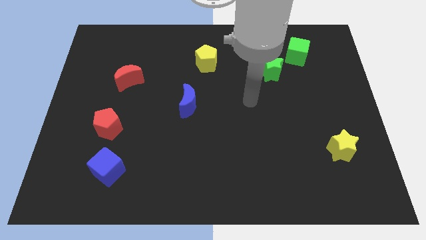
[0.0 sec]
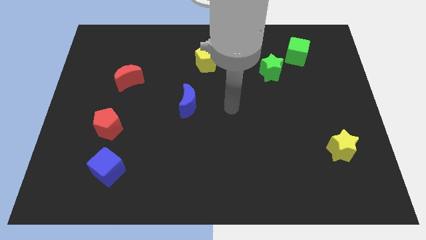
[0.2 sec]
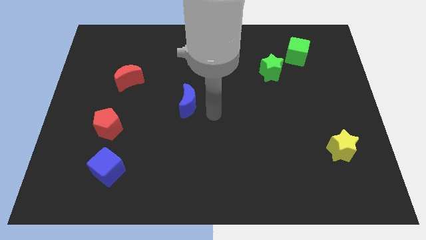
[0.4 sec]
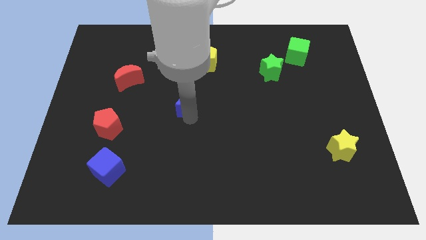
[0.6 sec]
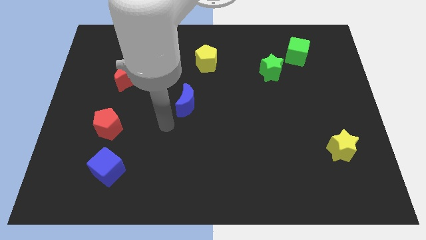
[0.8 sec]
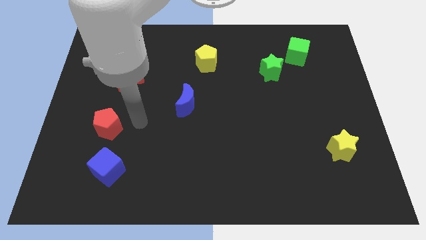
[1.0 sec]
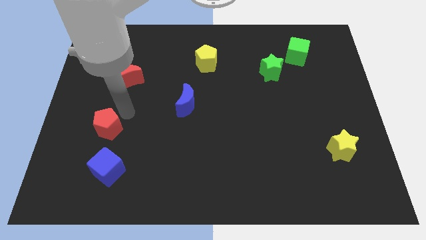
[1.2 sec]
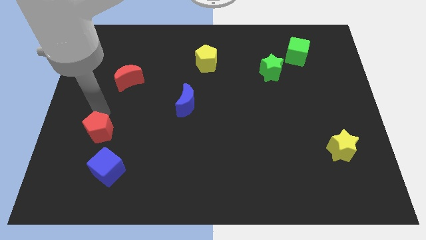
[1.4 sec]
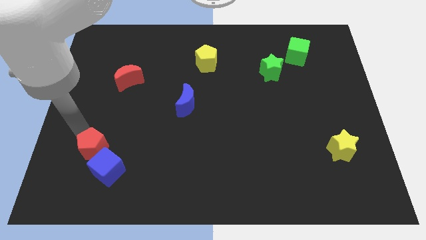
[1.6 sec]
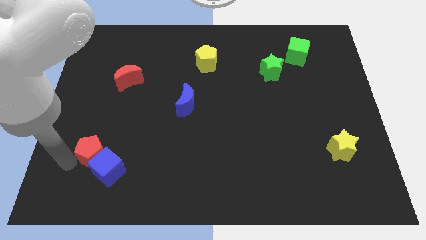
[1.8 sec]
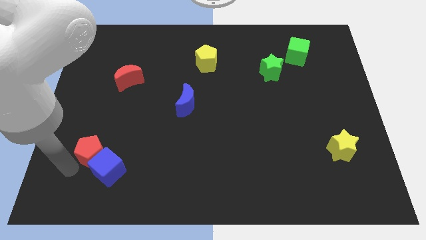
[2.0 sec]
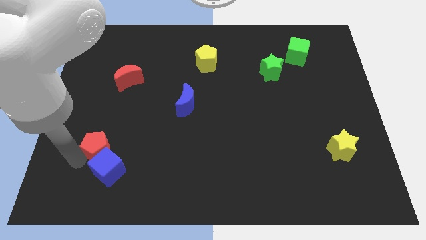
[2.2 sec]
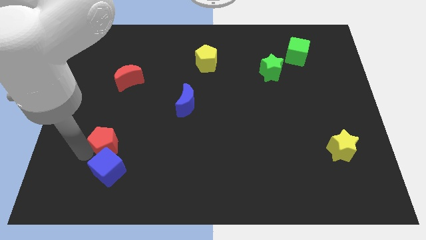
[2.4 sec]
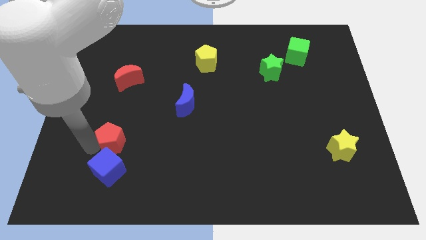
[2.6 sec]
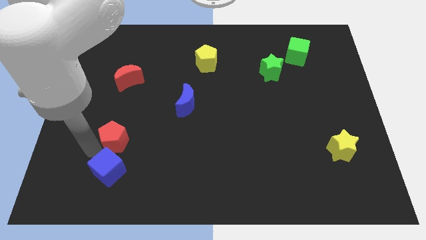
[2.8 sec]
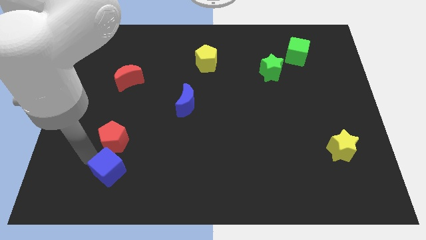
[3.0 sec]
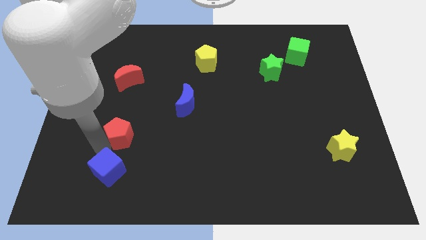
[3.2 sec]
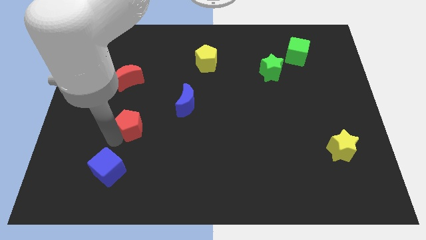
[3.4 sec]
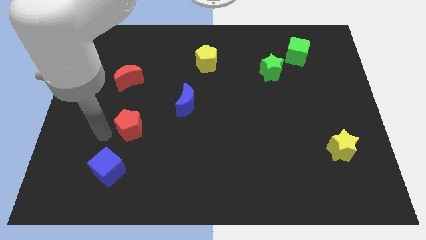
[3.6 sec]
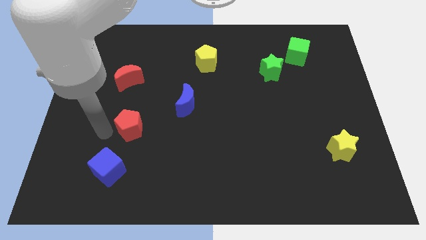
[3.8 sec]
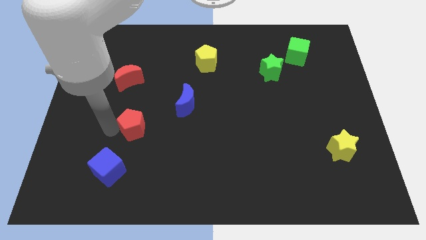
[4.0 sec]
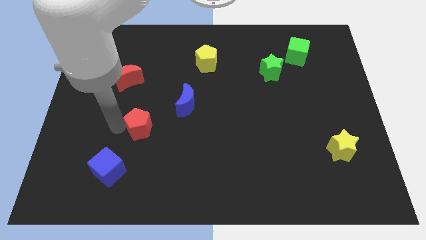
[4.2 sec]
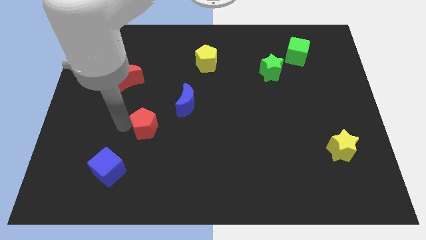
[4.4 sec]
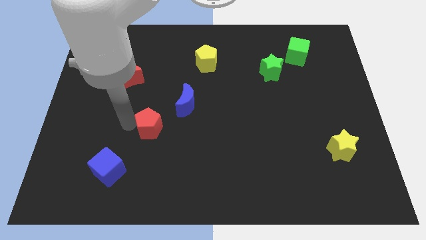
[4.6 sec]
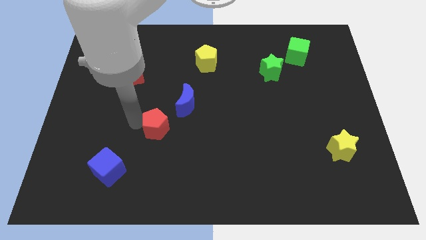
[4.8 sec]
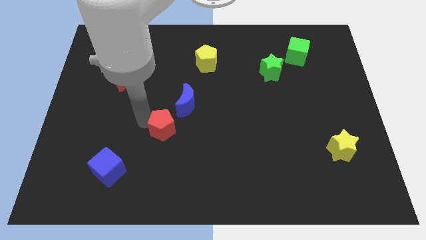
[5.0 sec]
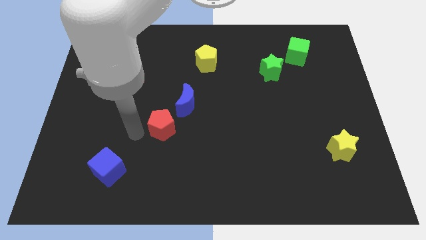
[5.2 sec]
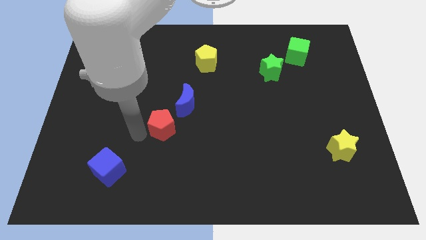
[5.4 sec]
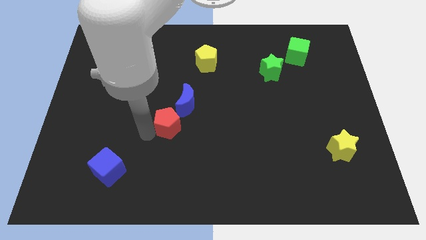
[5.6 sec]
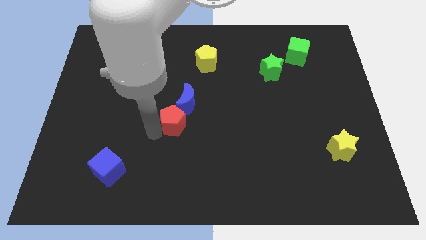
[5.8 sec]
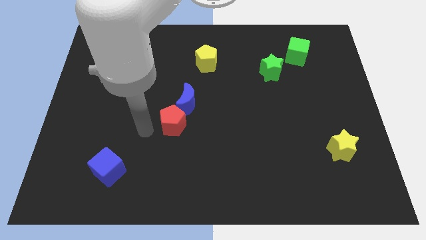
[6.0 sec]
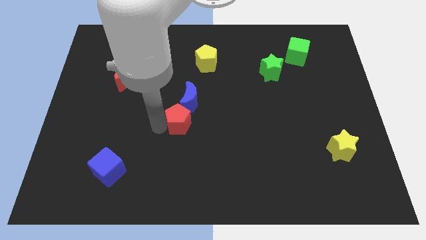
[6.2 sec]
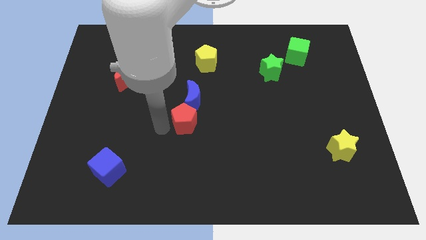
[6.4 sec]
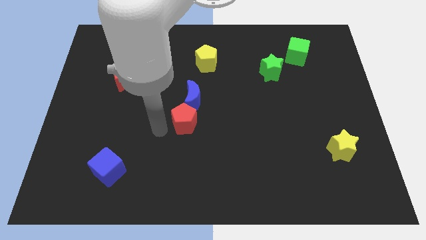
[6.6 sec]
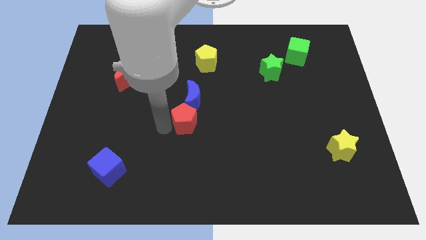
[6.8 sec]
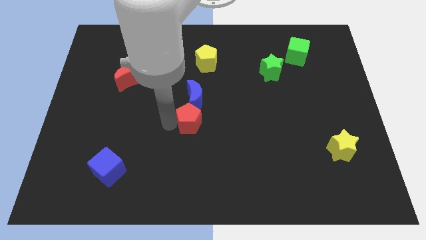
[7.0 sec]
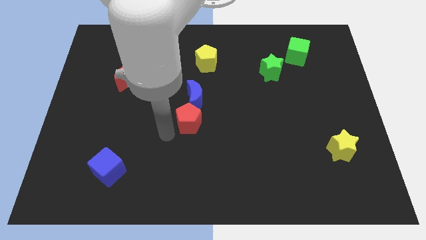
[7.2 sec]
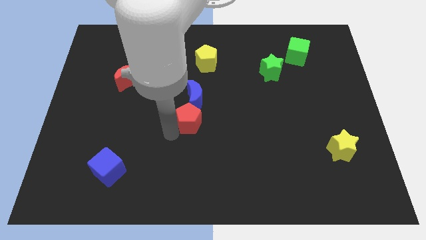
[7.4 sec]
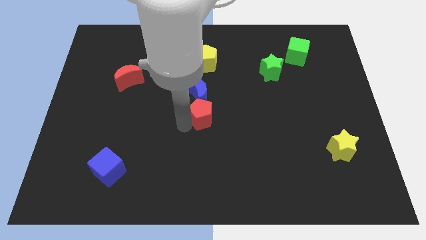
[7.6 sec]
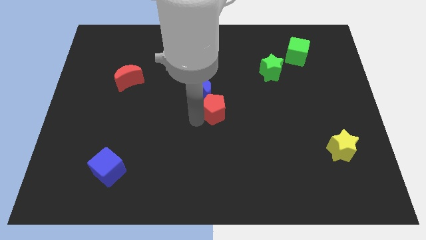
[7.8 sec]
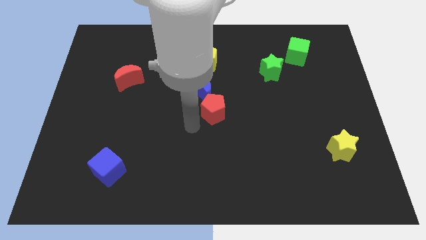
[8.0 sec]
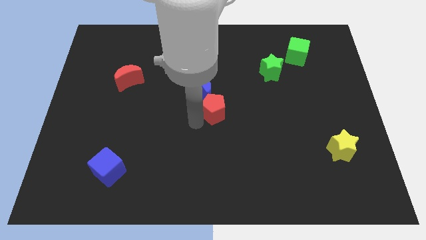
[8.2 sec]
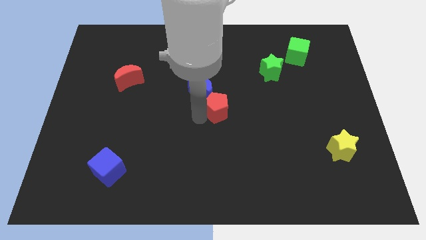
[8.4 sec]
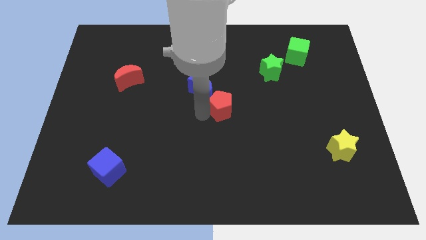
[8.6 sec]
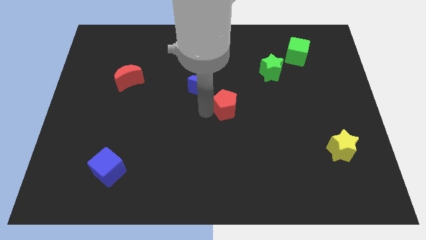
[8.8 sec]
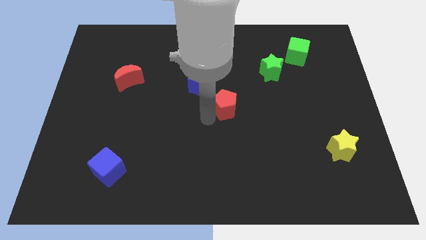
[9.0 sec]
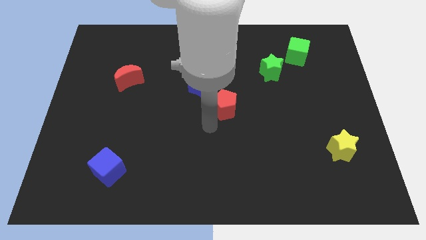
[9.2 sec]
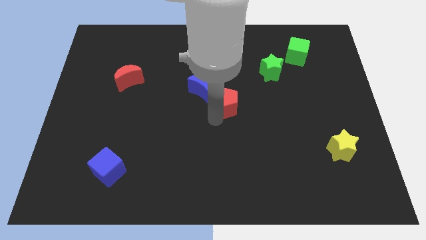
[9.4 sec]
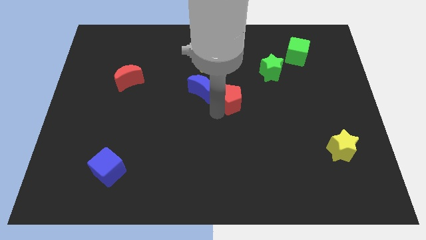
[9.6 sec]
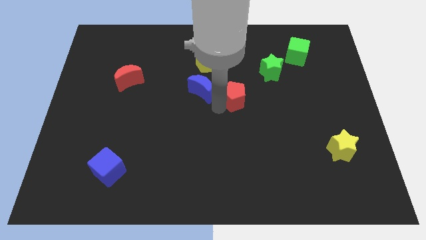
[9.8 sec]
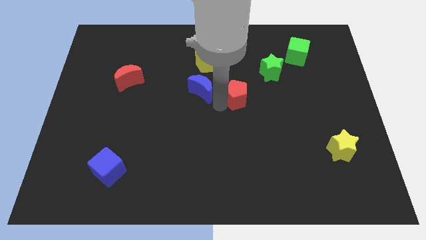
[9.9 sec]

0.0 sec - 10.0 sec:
put the red pentagon diagonally down and to the left of the green star

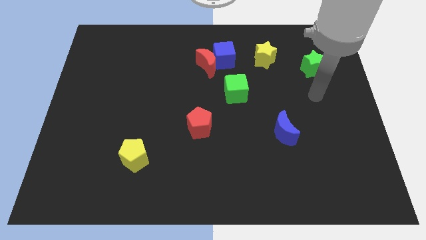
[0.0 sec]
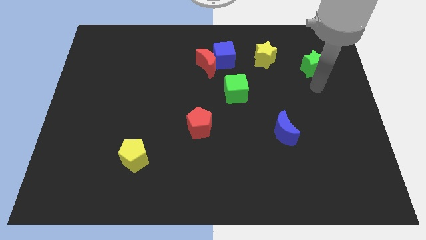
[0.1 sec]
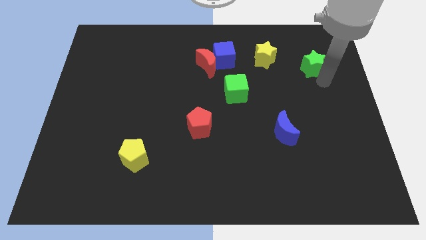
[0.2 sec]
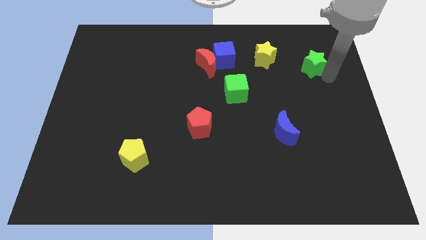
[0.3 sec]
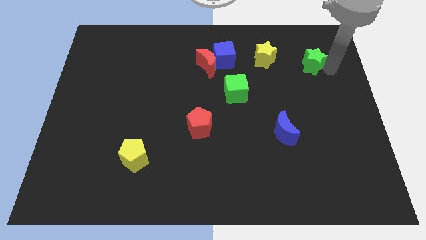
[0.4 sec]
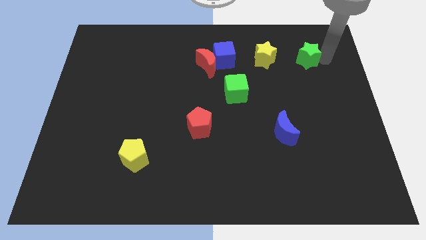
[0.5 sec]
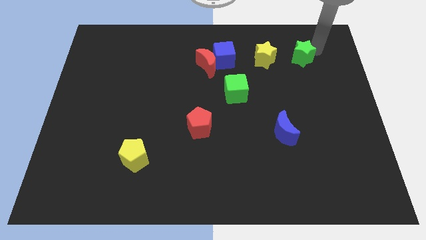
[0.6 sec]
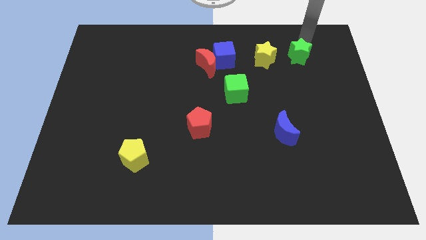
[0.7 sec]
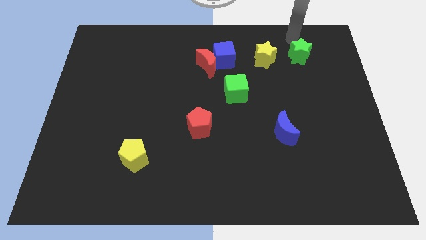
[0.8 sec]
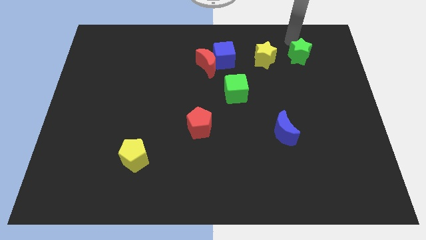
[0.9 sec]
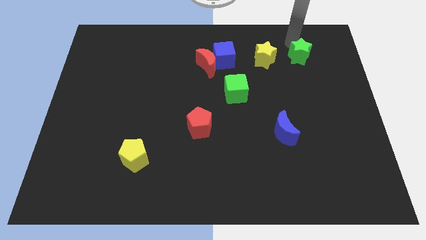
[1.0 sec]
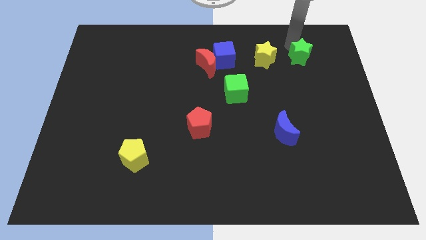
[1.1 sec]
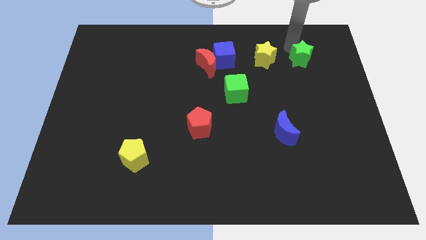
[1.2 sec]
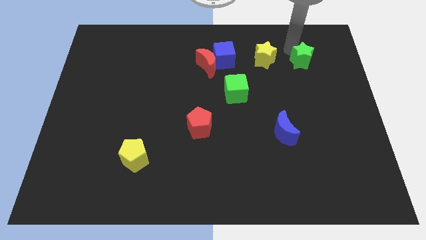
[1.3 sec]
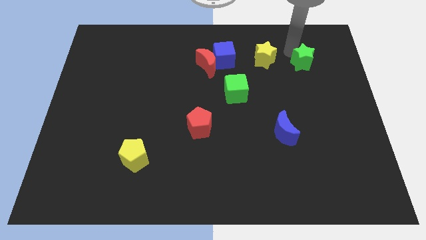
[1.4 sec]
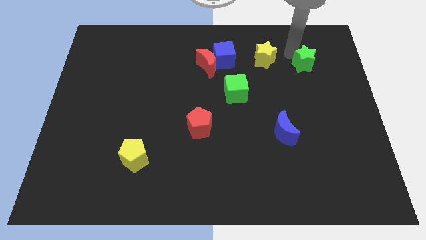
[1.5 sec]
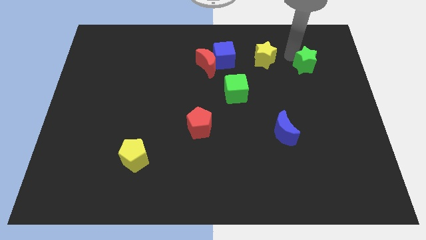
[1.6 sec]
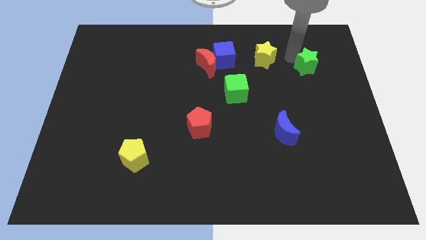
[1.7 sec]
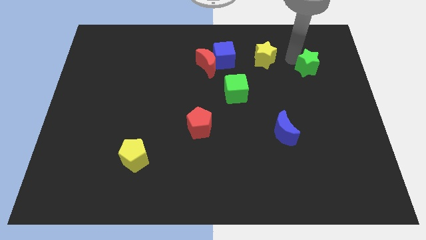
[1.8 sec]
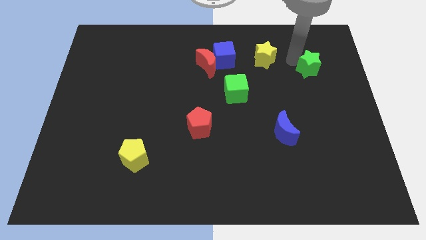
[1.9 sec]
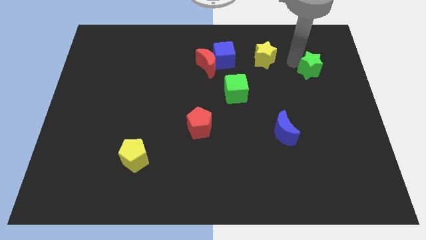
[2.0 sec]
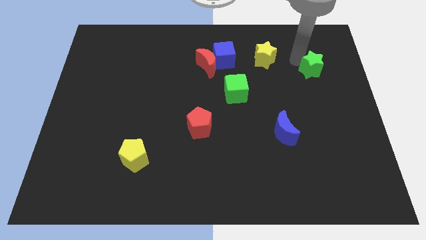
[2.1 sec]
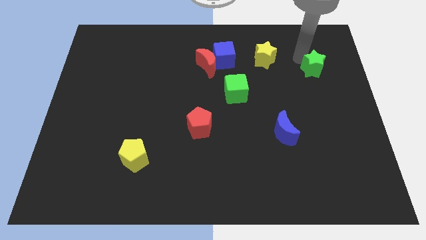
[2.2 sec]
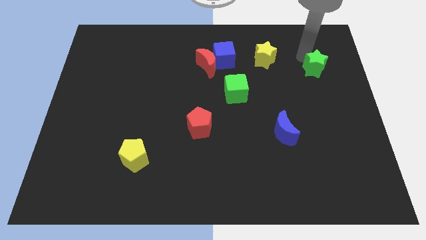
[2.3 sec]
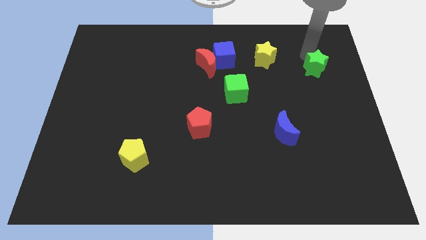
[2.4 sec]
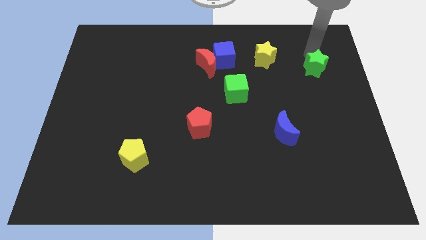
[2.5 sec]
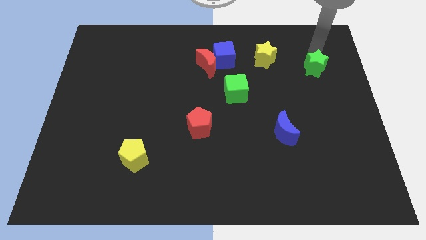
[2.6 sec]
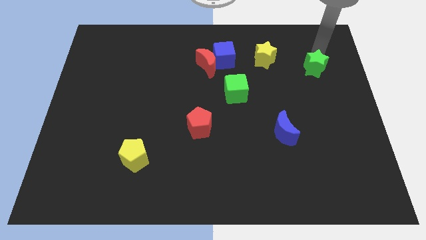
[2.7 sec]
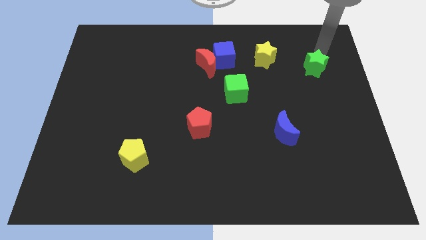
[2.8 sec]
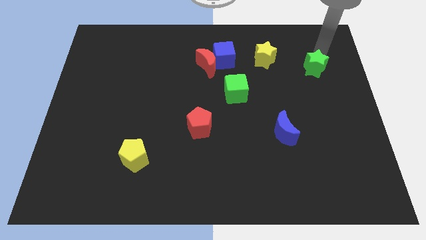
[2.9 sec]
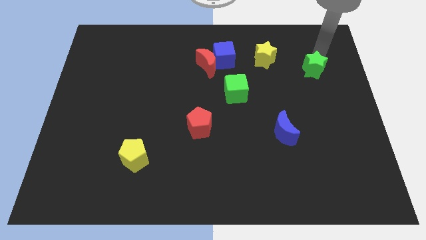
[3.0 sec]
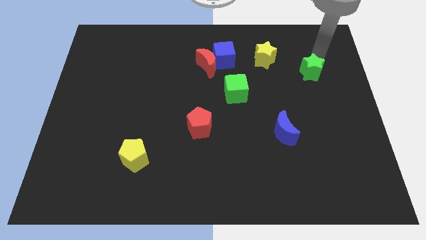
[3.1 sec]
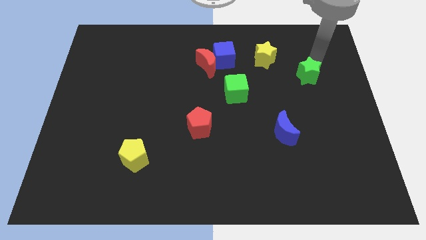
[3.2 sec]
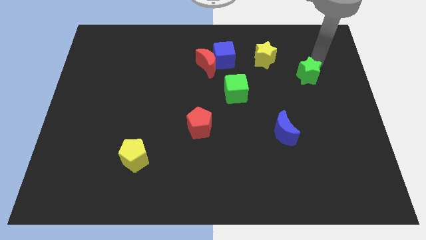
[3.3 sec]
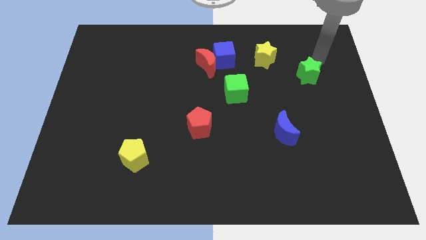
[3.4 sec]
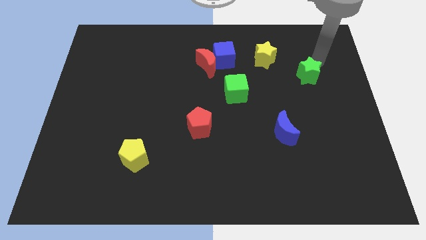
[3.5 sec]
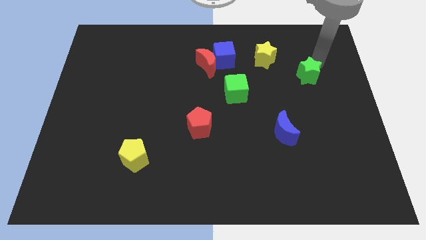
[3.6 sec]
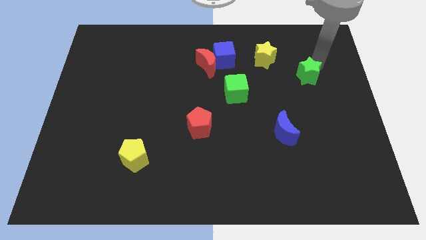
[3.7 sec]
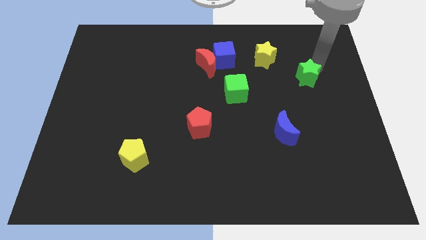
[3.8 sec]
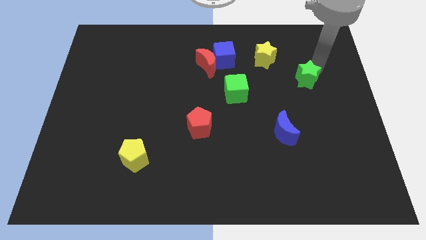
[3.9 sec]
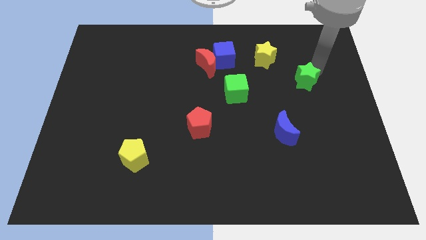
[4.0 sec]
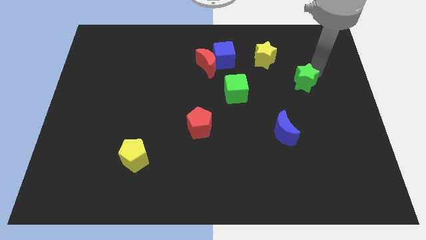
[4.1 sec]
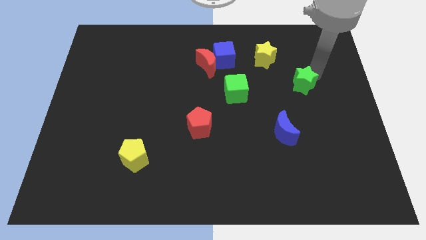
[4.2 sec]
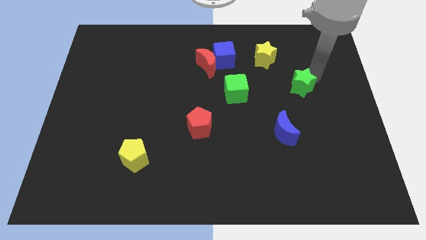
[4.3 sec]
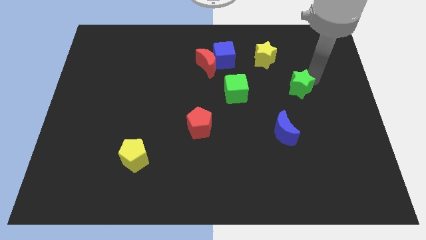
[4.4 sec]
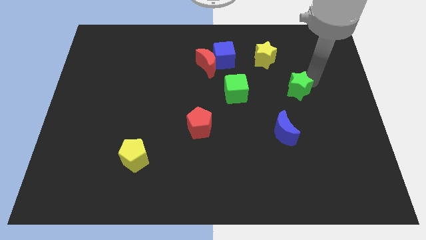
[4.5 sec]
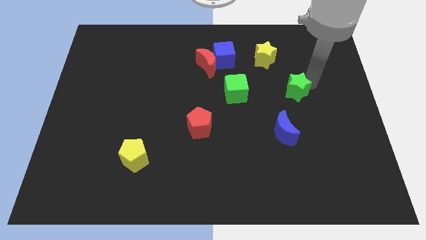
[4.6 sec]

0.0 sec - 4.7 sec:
slide the green star to the top side of the blue moon
